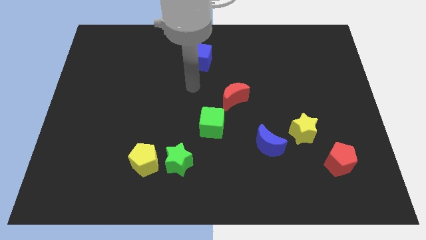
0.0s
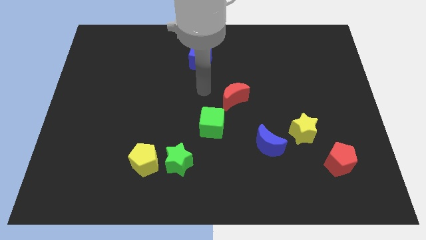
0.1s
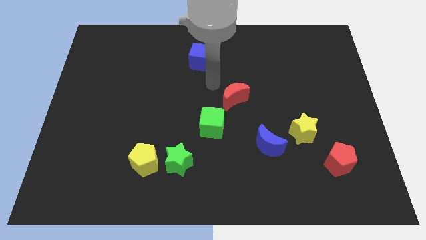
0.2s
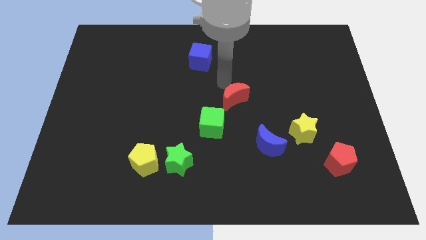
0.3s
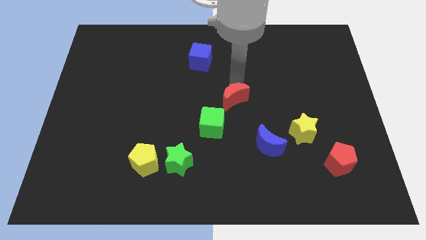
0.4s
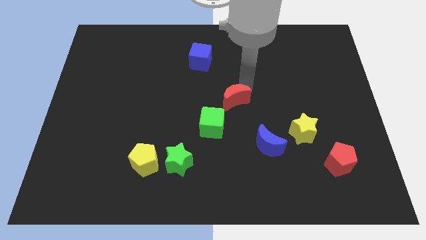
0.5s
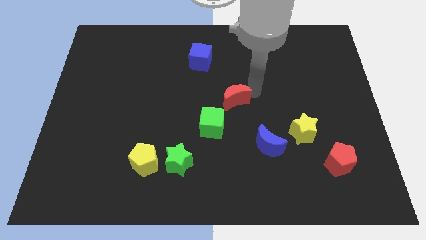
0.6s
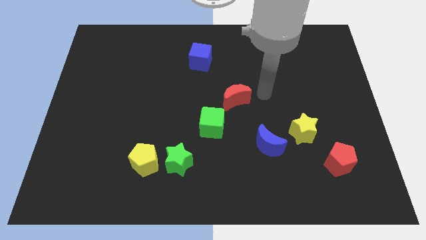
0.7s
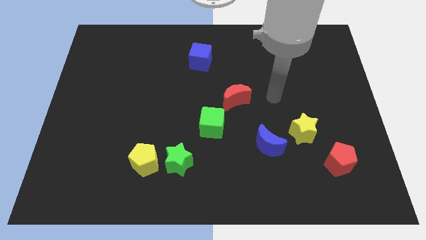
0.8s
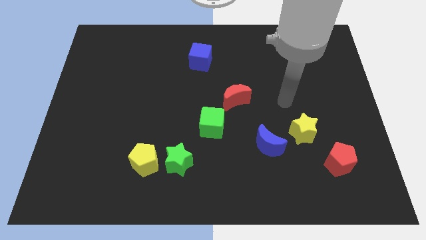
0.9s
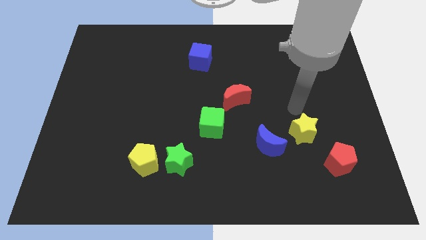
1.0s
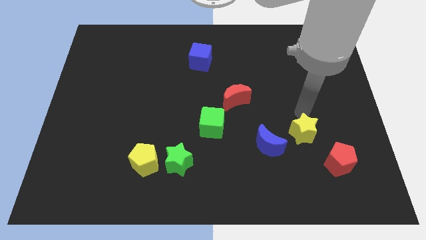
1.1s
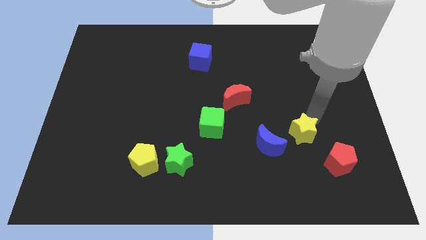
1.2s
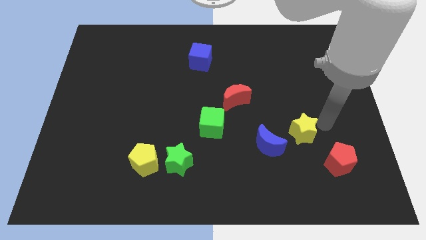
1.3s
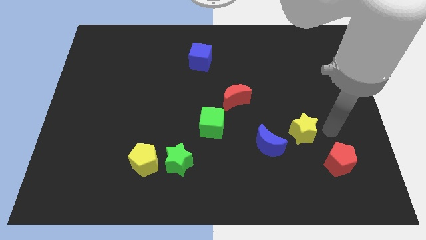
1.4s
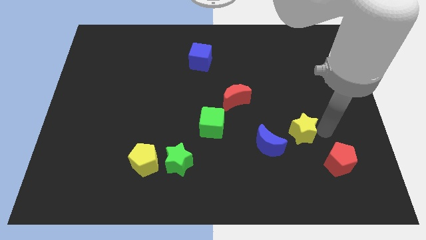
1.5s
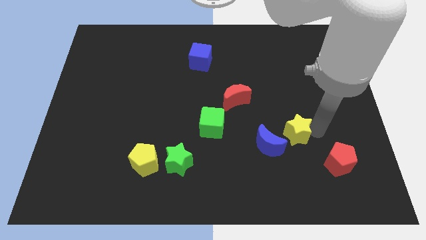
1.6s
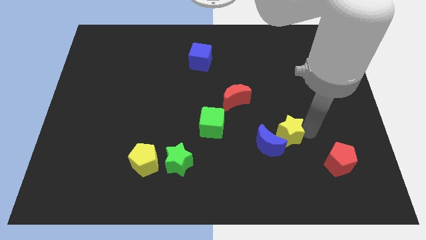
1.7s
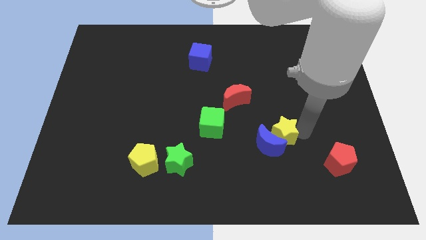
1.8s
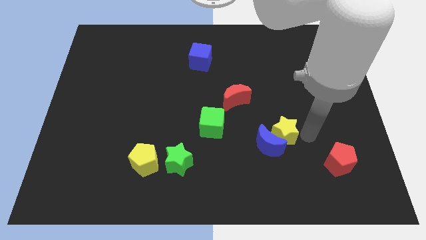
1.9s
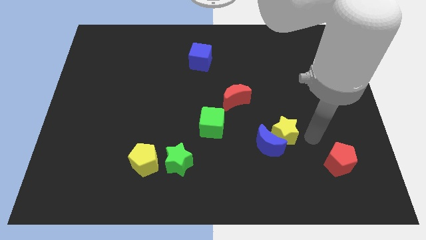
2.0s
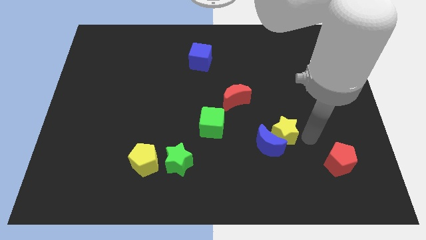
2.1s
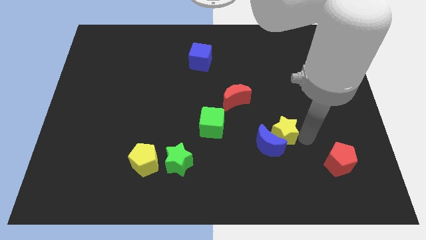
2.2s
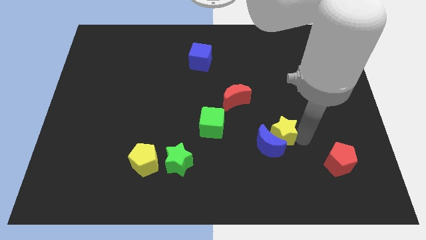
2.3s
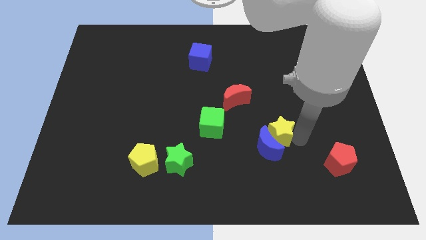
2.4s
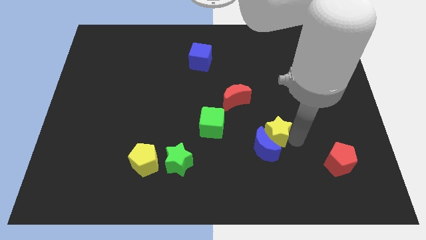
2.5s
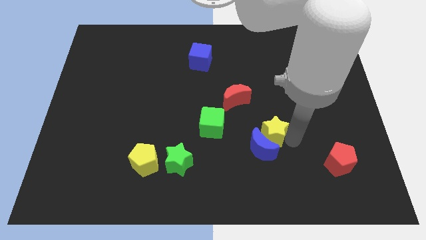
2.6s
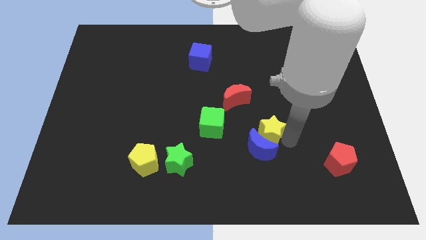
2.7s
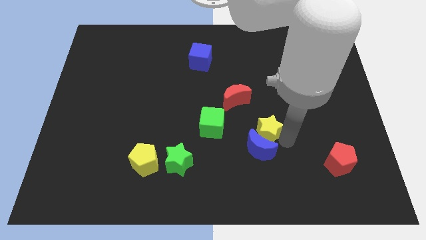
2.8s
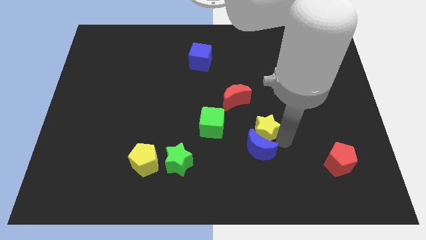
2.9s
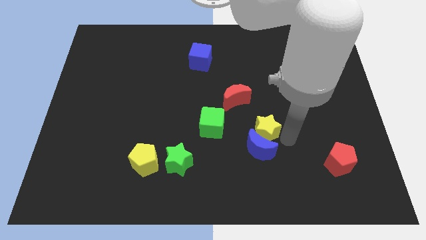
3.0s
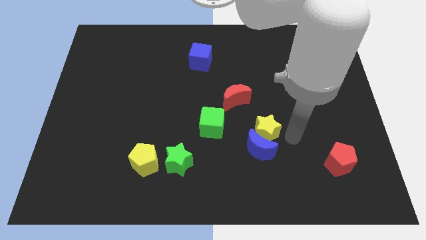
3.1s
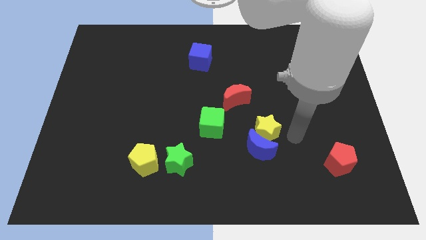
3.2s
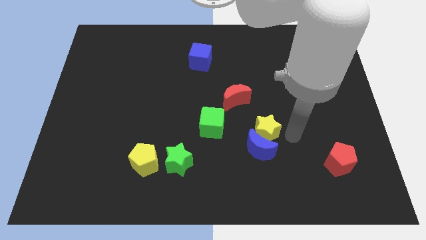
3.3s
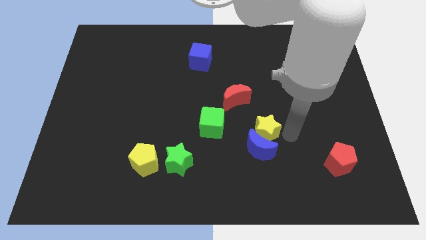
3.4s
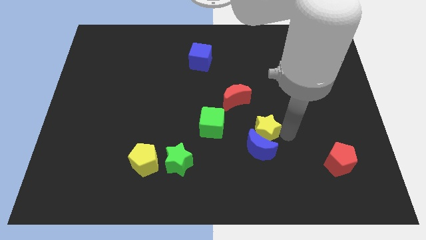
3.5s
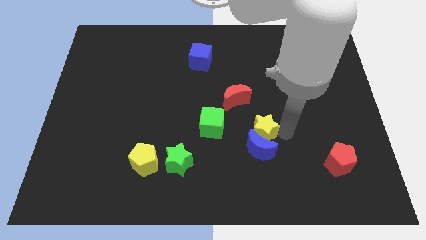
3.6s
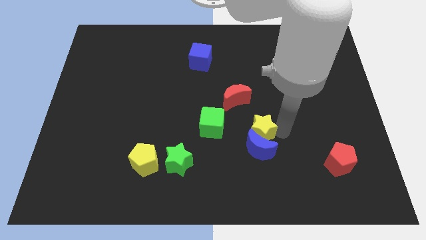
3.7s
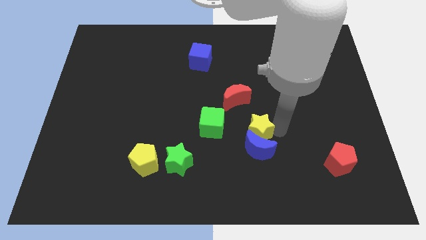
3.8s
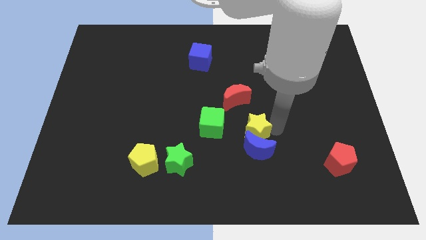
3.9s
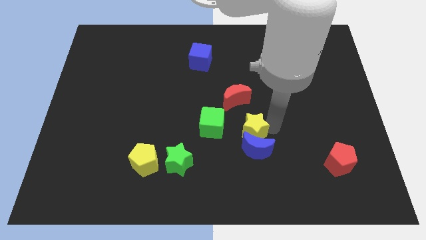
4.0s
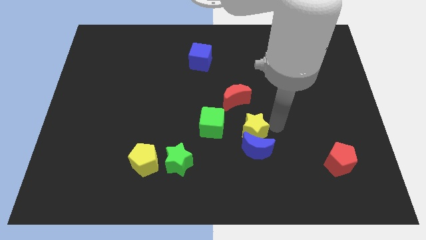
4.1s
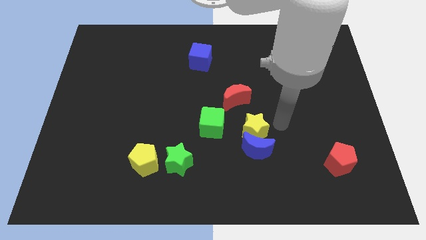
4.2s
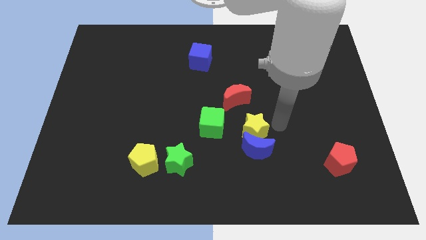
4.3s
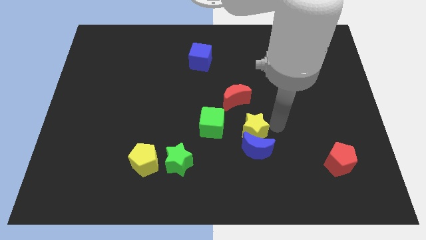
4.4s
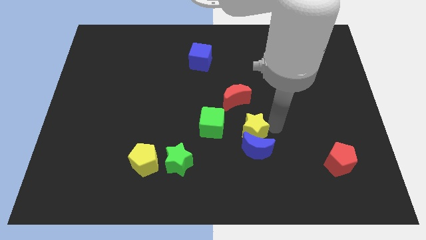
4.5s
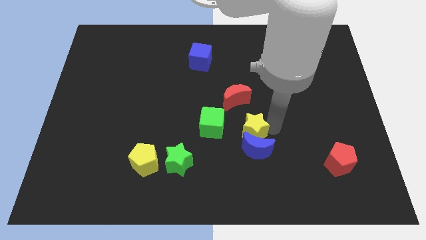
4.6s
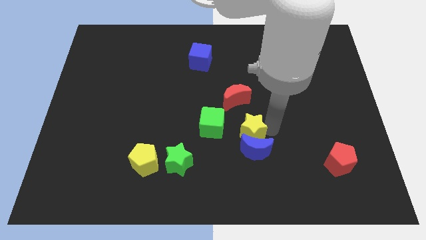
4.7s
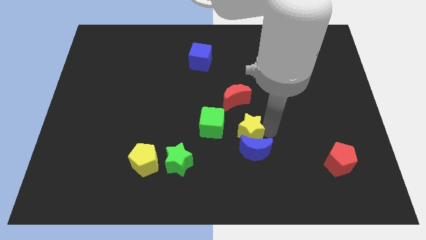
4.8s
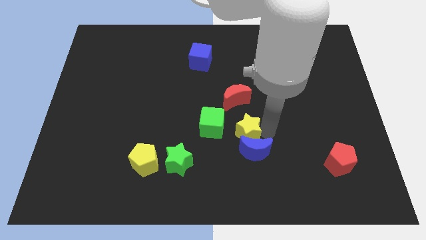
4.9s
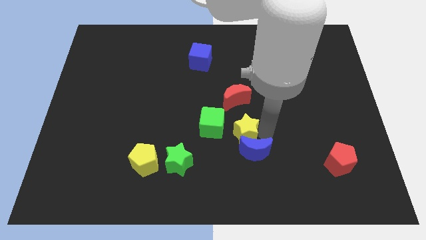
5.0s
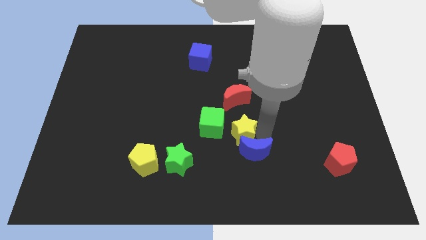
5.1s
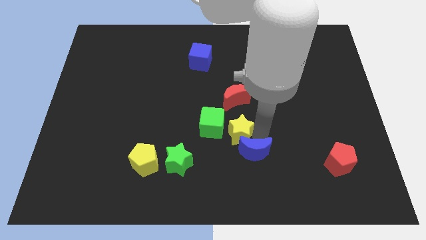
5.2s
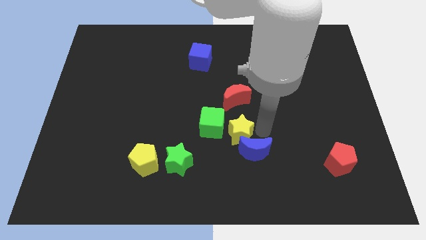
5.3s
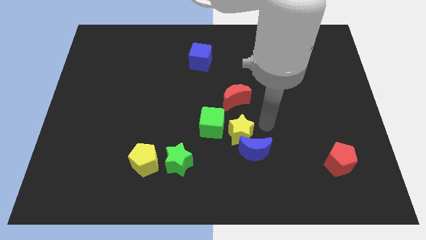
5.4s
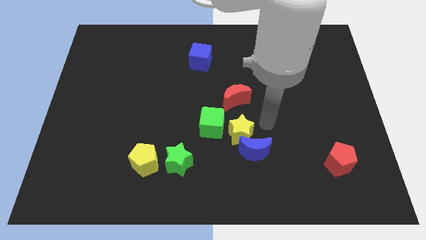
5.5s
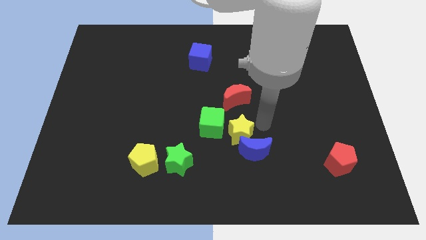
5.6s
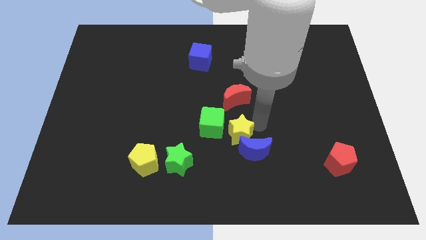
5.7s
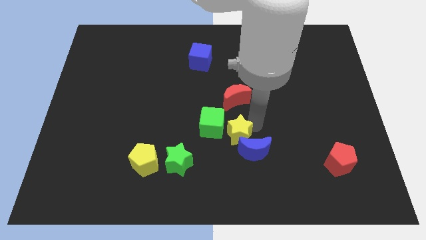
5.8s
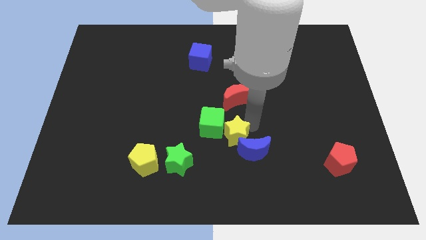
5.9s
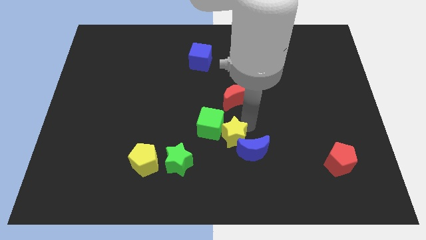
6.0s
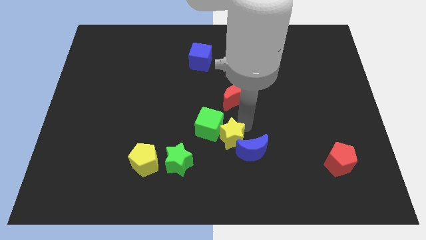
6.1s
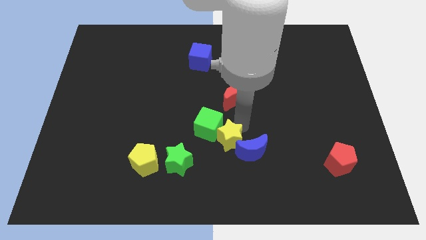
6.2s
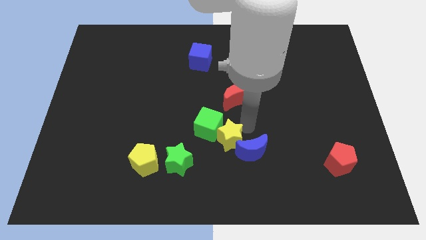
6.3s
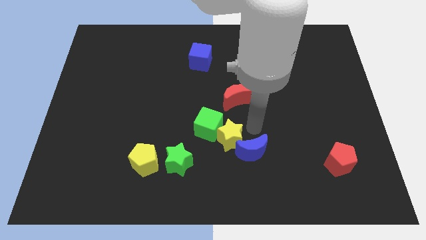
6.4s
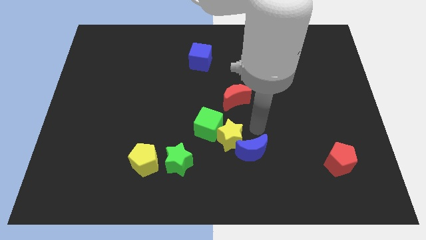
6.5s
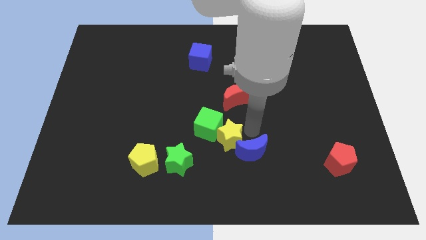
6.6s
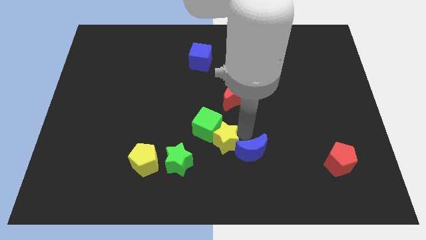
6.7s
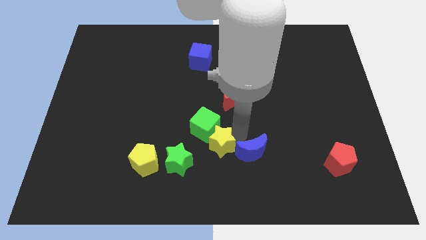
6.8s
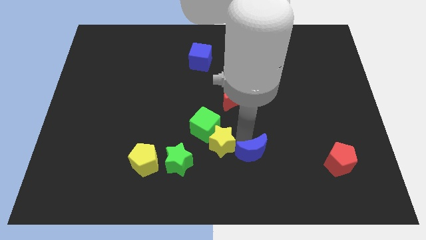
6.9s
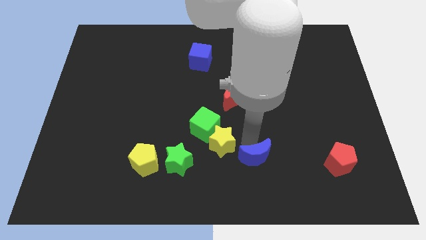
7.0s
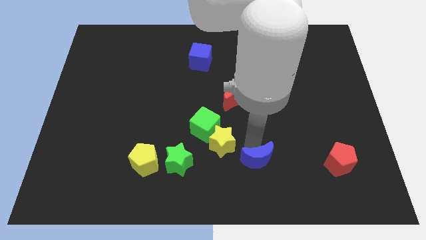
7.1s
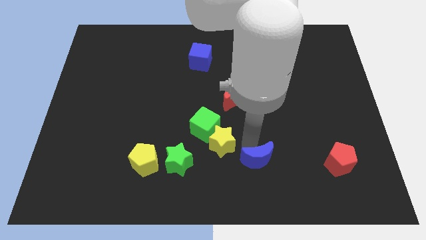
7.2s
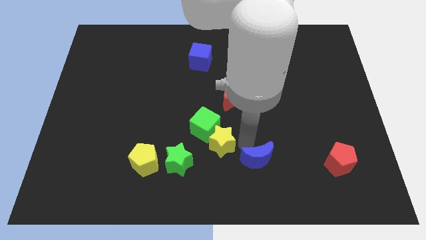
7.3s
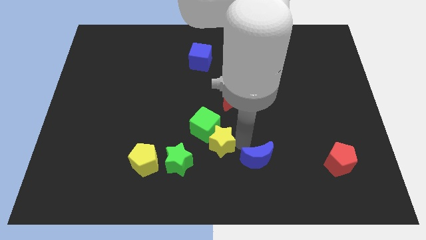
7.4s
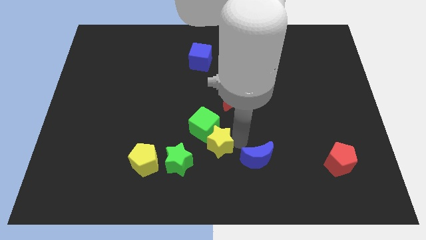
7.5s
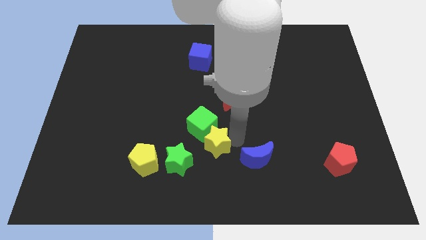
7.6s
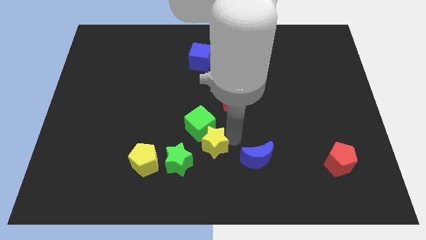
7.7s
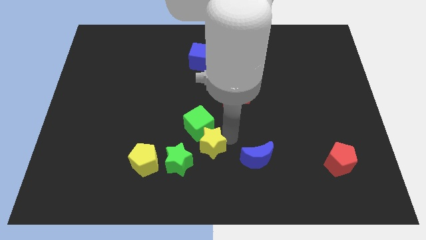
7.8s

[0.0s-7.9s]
slide the yellow star to the left

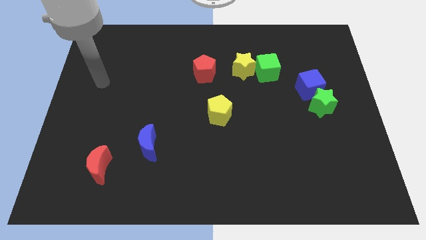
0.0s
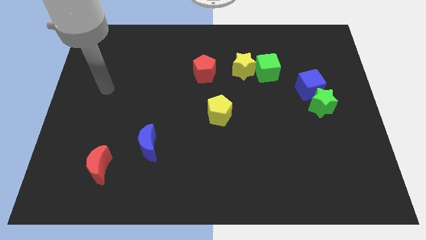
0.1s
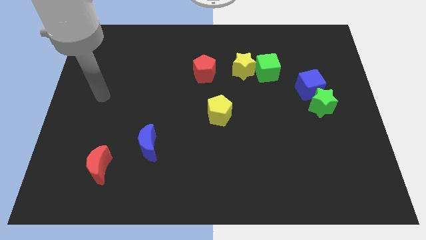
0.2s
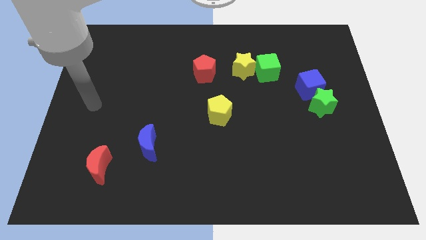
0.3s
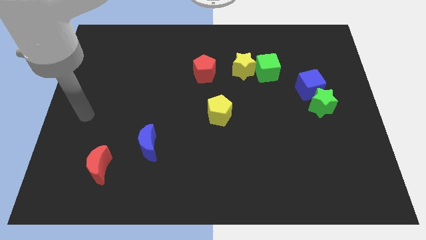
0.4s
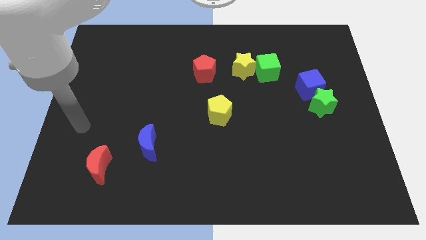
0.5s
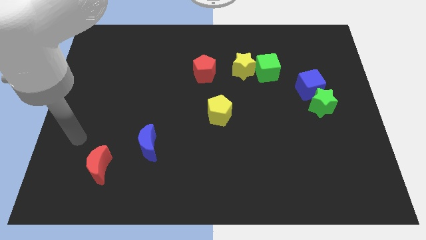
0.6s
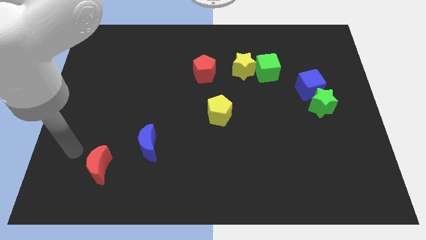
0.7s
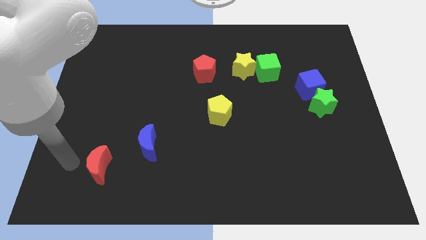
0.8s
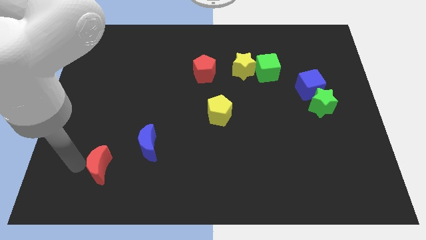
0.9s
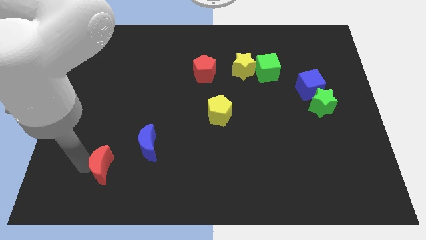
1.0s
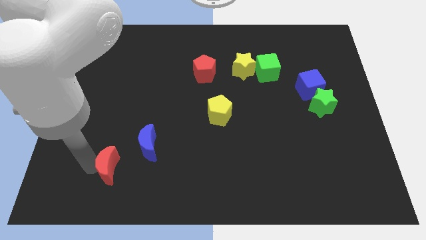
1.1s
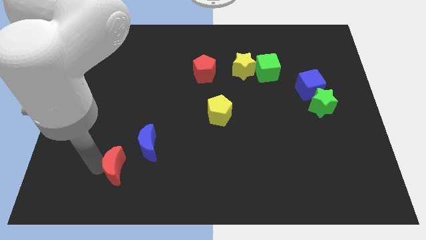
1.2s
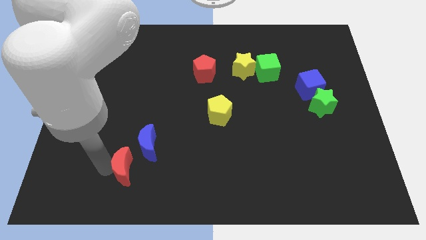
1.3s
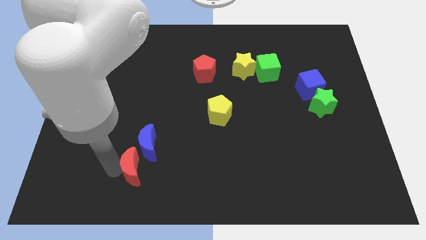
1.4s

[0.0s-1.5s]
slide the red moon to the right a bit
